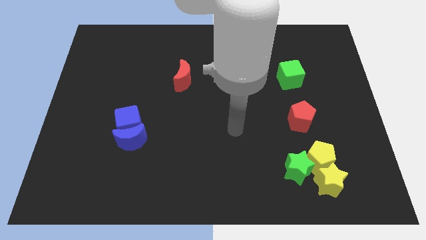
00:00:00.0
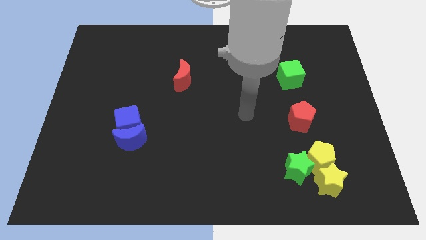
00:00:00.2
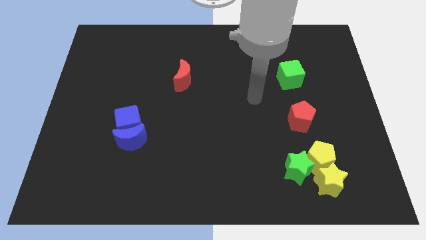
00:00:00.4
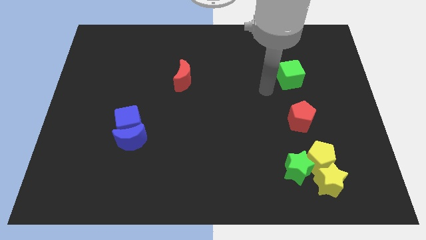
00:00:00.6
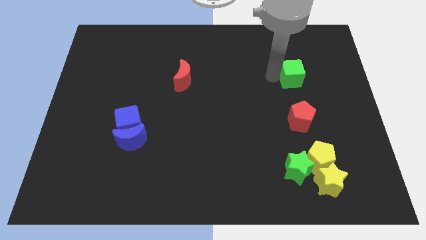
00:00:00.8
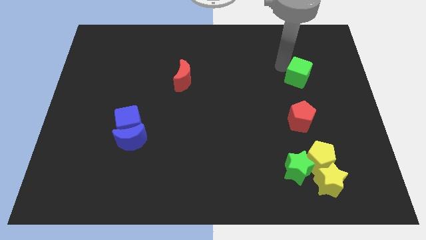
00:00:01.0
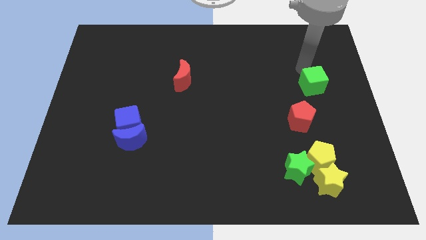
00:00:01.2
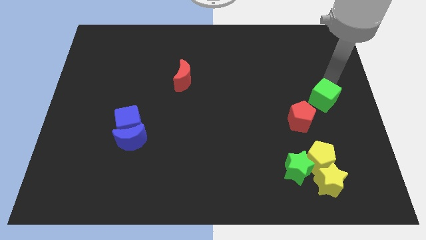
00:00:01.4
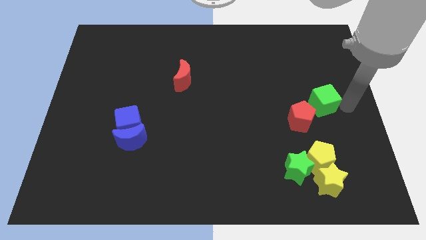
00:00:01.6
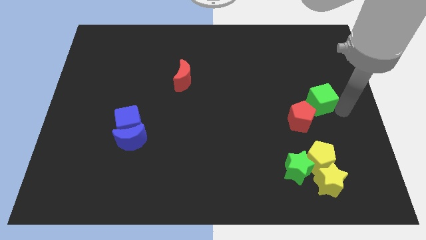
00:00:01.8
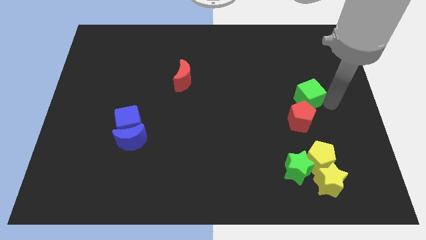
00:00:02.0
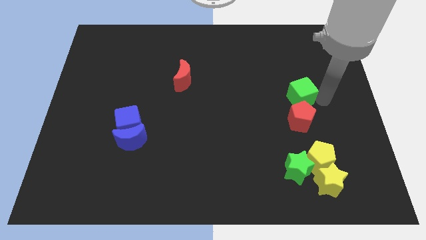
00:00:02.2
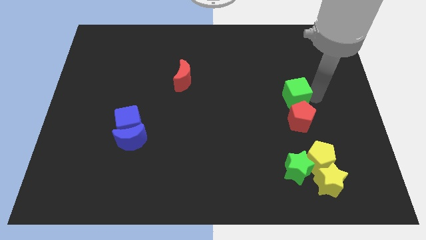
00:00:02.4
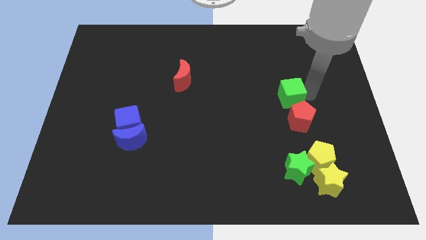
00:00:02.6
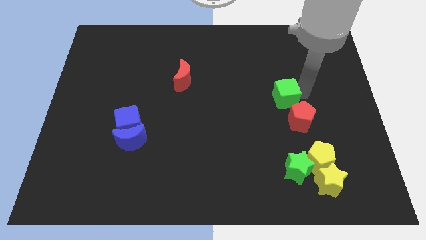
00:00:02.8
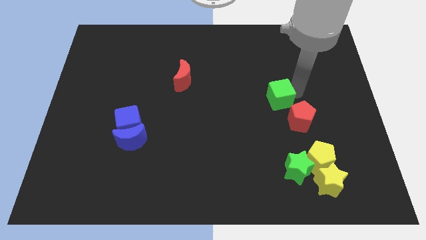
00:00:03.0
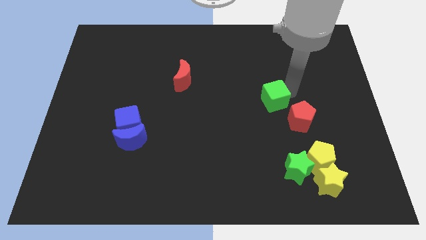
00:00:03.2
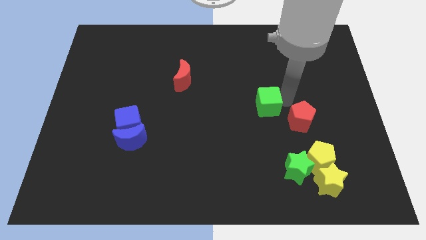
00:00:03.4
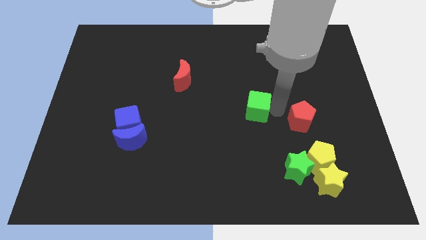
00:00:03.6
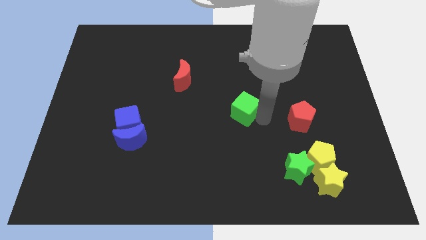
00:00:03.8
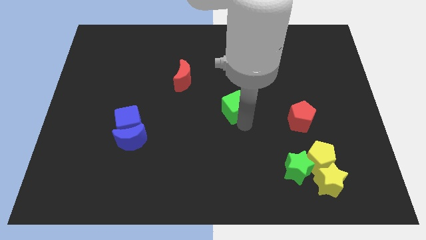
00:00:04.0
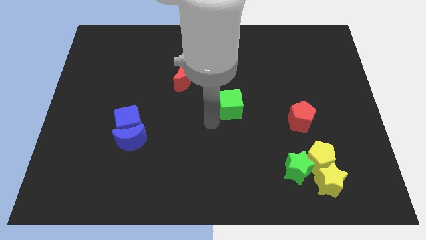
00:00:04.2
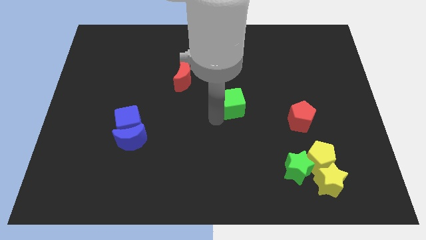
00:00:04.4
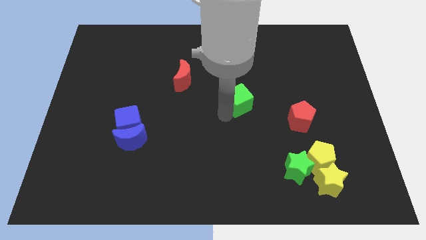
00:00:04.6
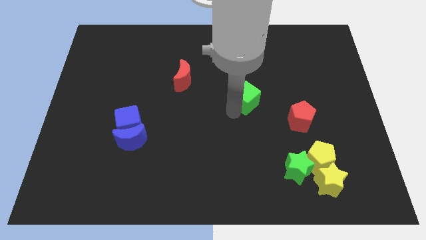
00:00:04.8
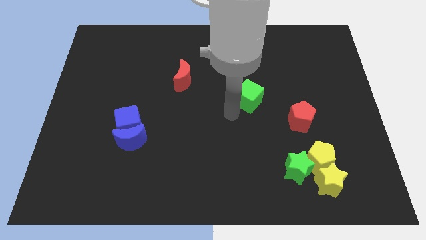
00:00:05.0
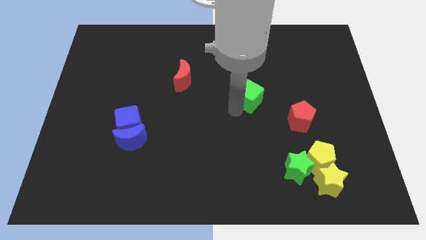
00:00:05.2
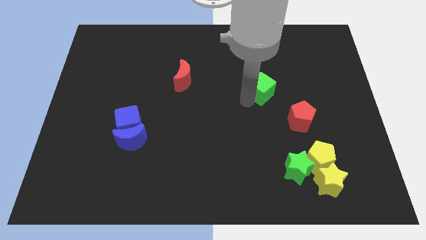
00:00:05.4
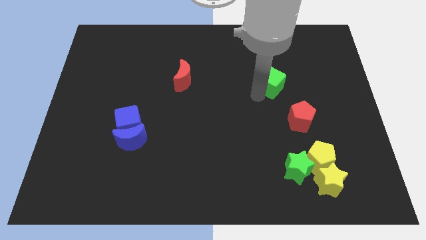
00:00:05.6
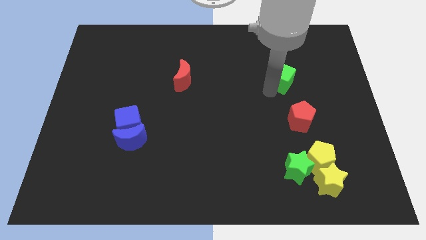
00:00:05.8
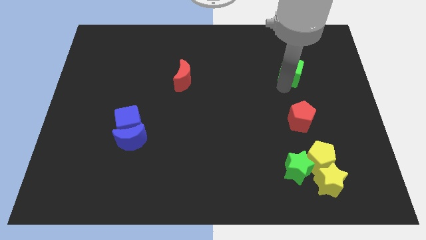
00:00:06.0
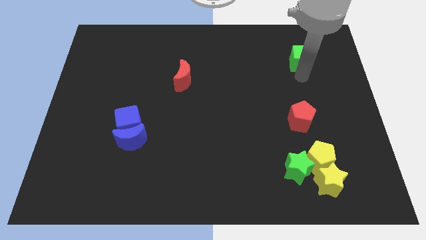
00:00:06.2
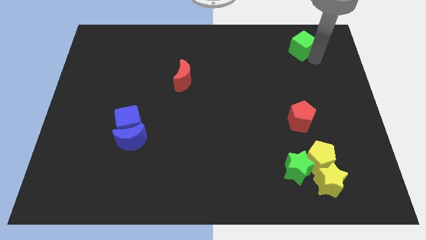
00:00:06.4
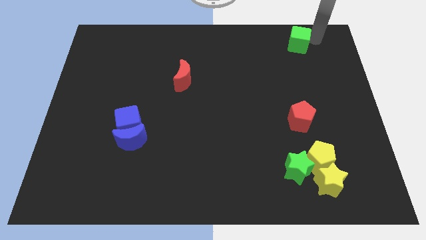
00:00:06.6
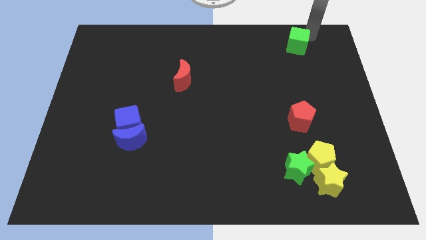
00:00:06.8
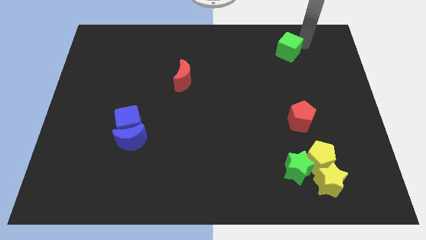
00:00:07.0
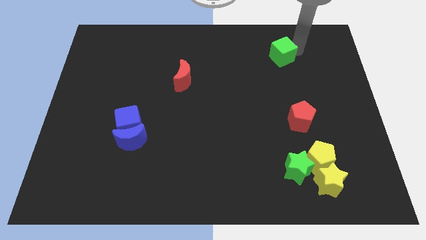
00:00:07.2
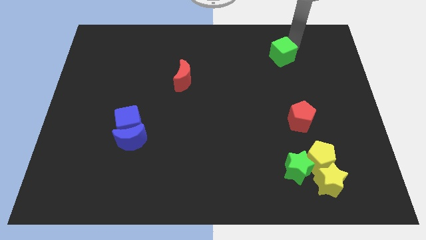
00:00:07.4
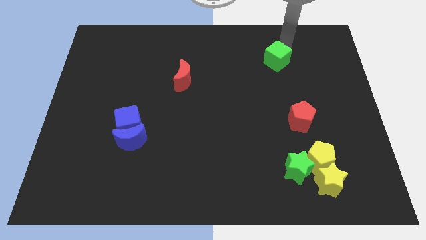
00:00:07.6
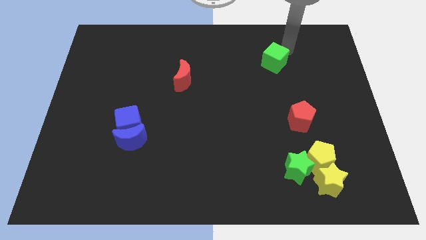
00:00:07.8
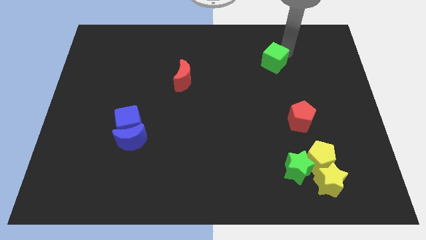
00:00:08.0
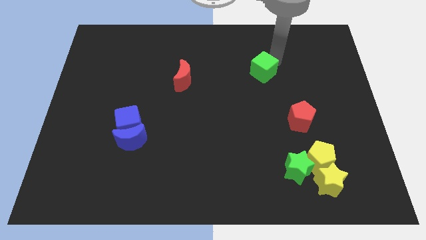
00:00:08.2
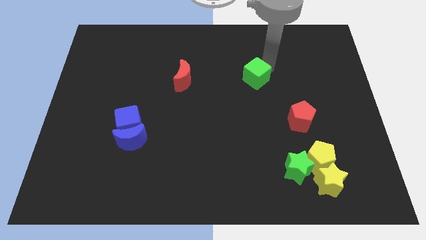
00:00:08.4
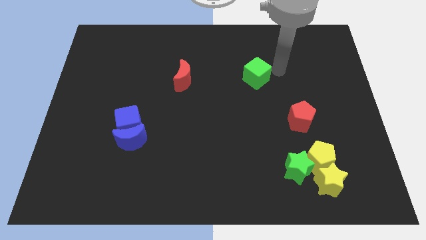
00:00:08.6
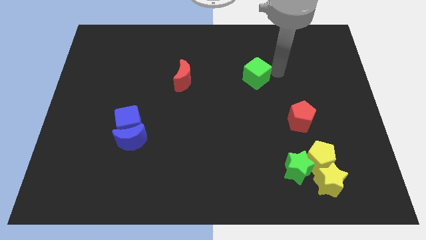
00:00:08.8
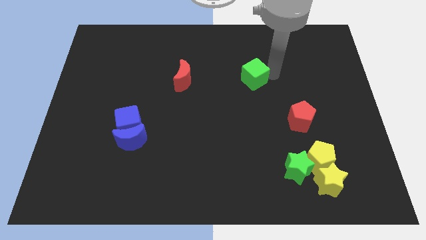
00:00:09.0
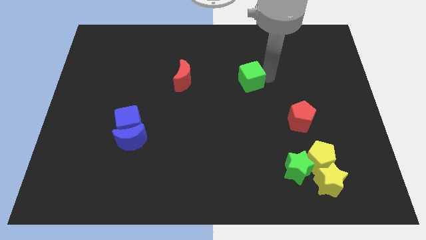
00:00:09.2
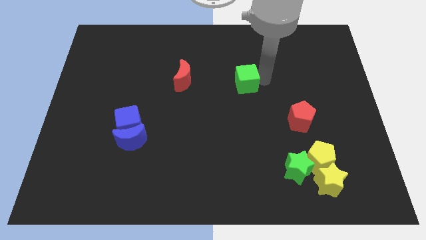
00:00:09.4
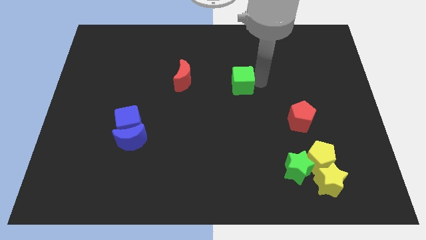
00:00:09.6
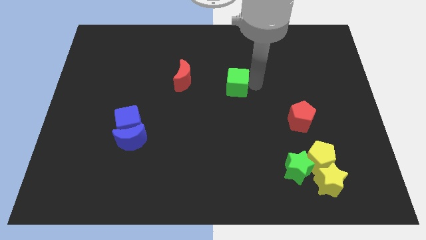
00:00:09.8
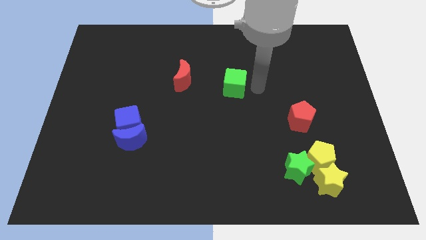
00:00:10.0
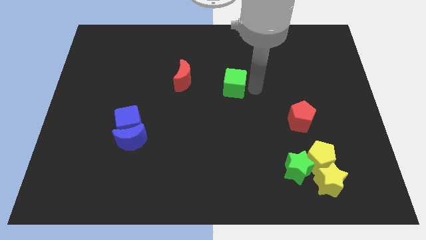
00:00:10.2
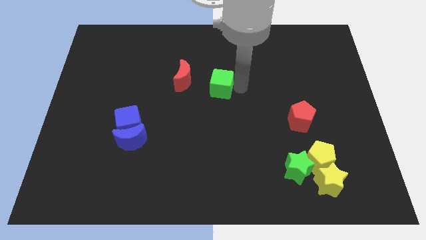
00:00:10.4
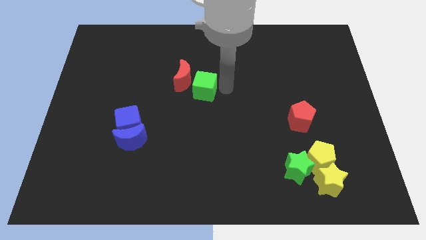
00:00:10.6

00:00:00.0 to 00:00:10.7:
push the green cube close to the red moon

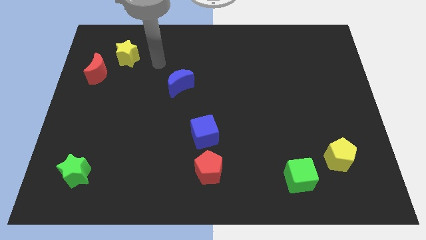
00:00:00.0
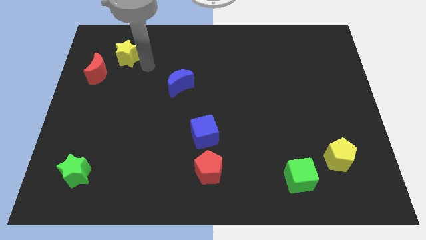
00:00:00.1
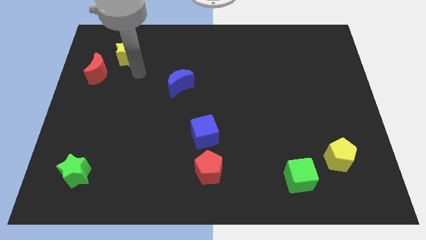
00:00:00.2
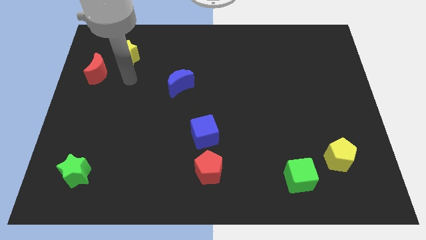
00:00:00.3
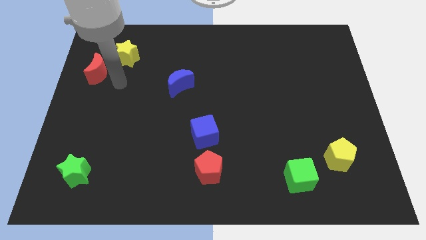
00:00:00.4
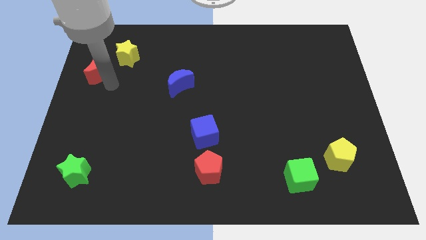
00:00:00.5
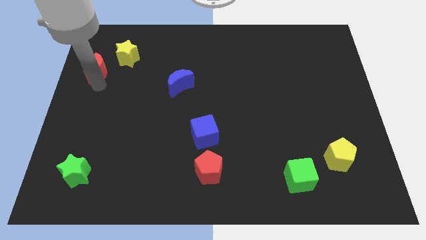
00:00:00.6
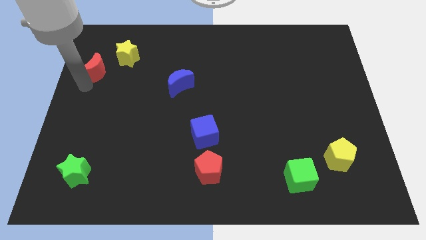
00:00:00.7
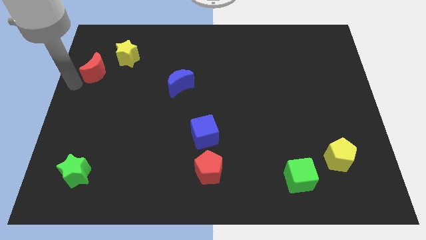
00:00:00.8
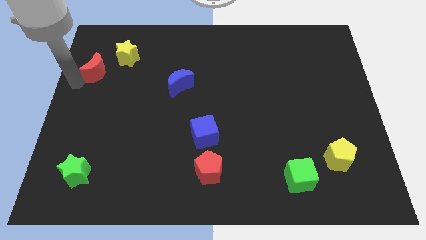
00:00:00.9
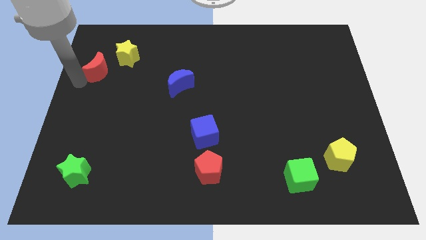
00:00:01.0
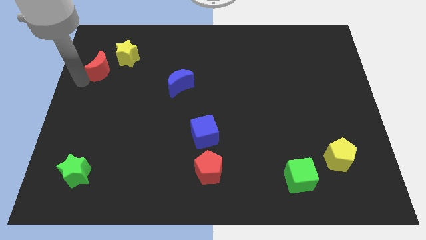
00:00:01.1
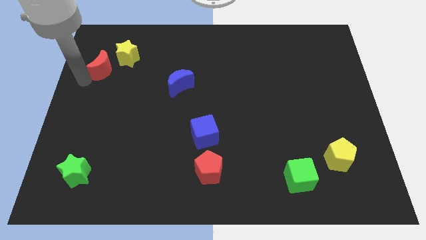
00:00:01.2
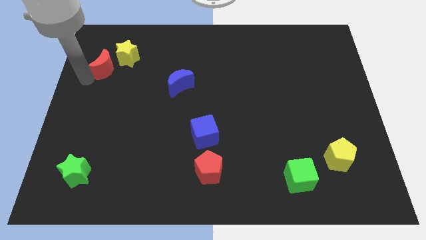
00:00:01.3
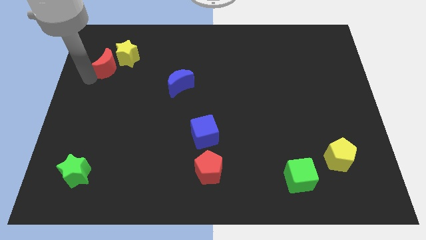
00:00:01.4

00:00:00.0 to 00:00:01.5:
slide the red moon close to the yellow star
